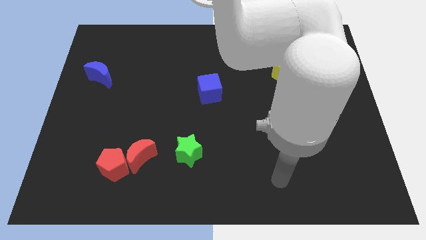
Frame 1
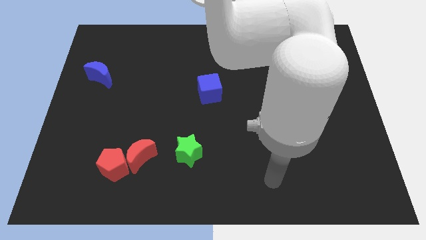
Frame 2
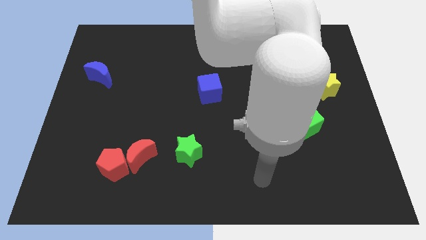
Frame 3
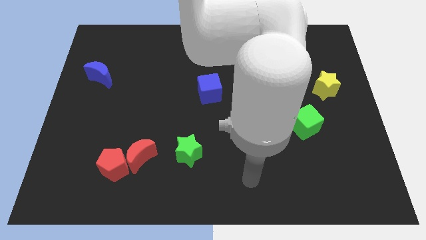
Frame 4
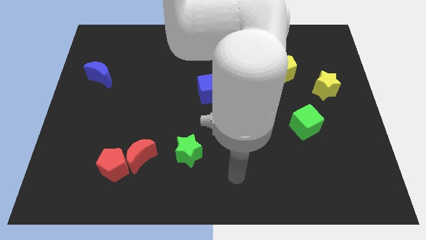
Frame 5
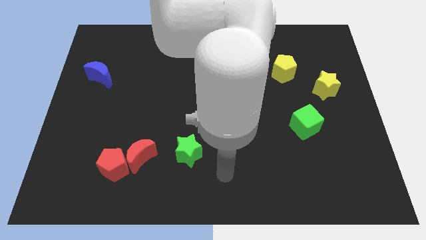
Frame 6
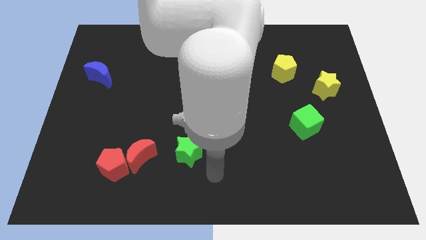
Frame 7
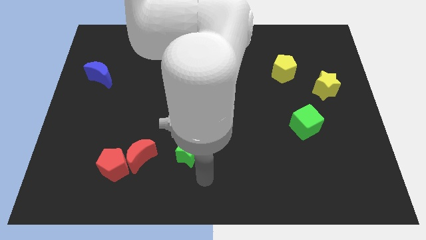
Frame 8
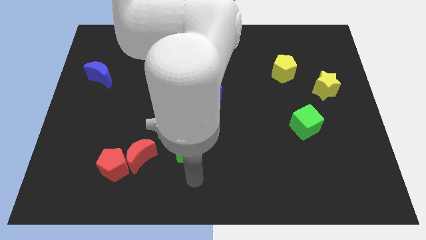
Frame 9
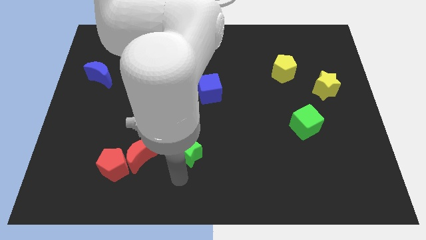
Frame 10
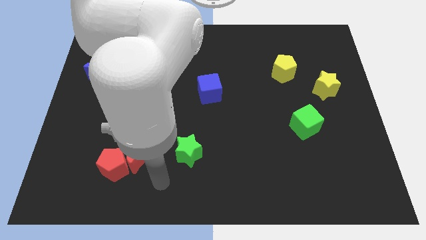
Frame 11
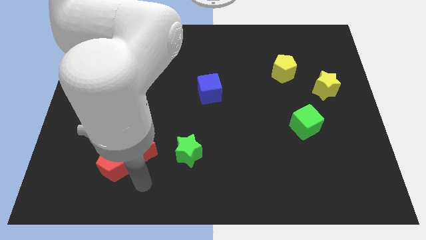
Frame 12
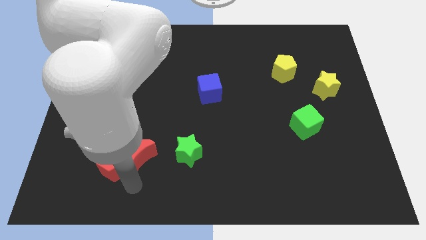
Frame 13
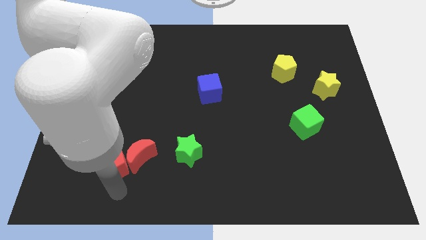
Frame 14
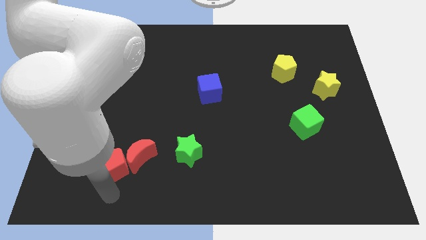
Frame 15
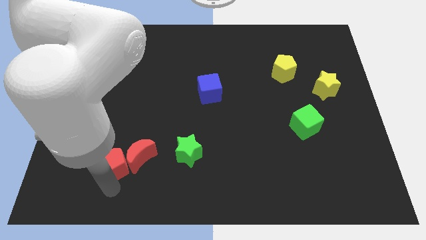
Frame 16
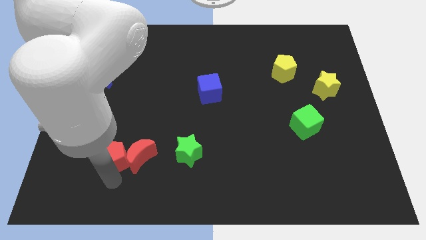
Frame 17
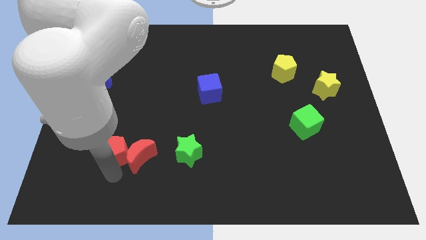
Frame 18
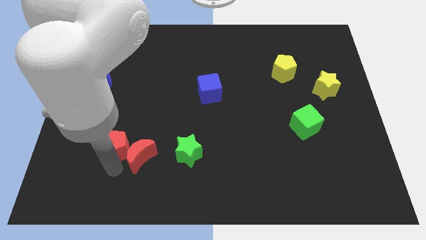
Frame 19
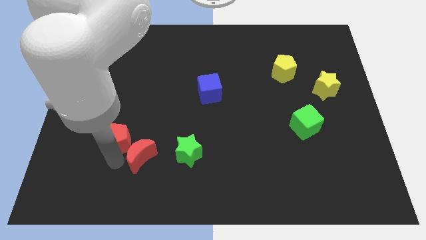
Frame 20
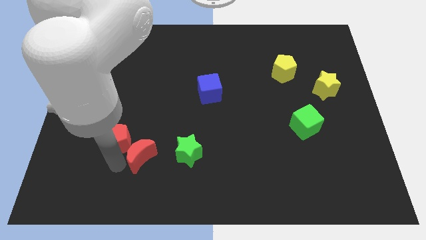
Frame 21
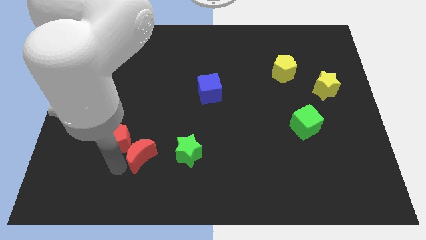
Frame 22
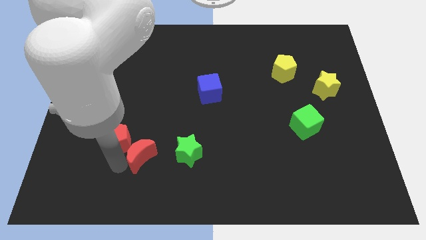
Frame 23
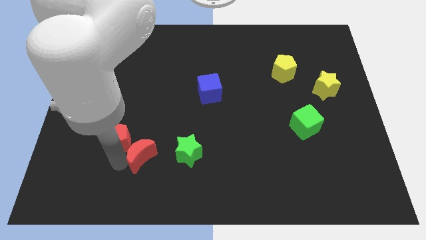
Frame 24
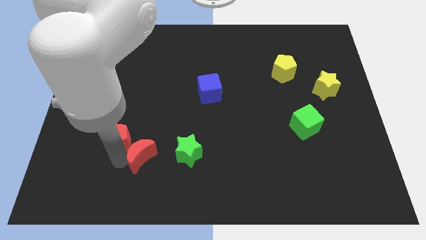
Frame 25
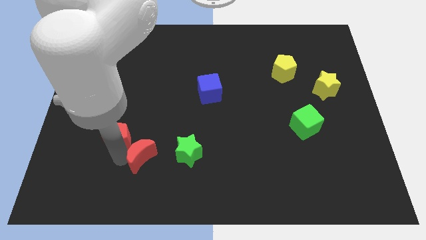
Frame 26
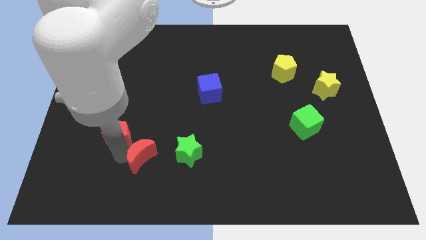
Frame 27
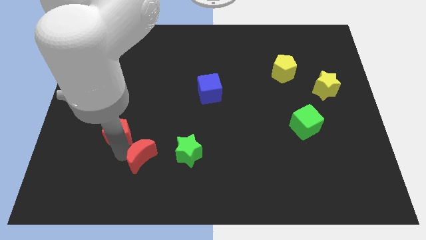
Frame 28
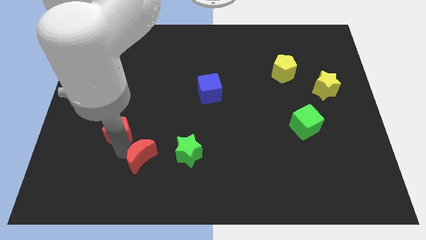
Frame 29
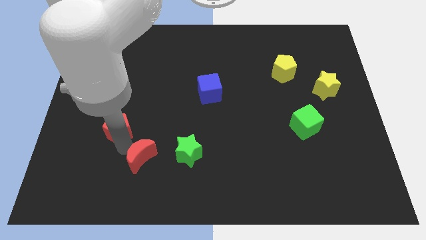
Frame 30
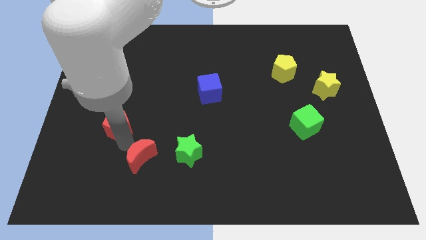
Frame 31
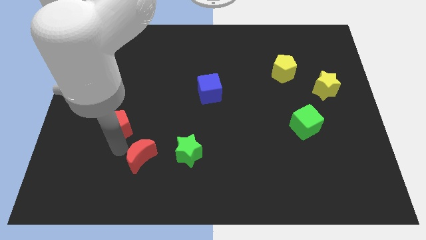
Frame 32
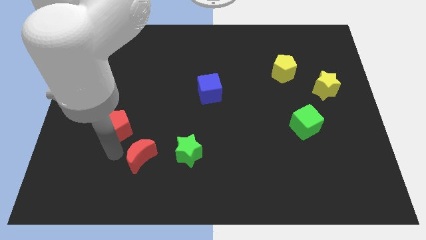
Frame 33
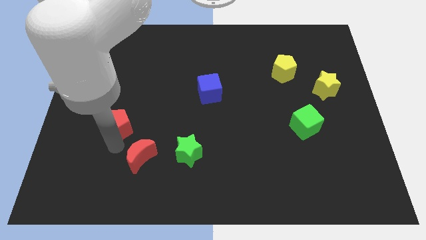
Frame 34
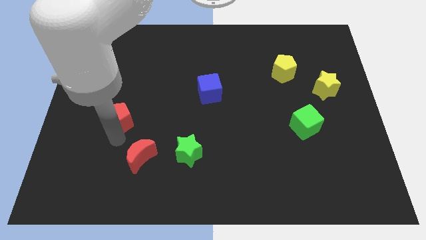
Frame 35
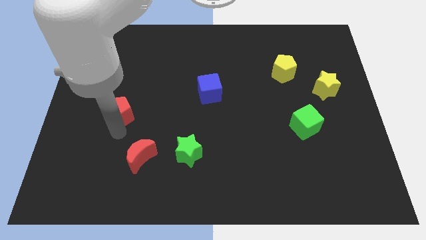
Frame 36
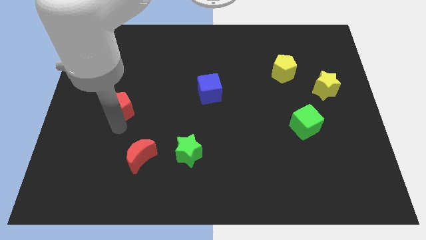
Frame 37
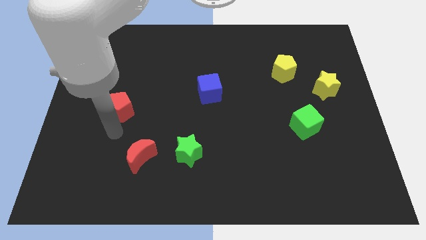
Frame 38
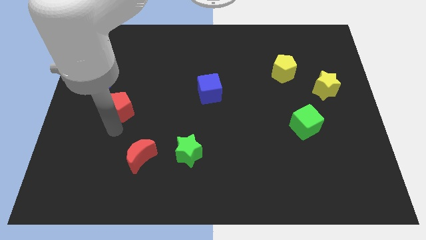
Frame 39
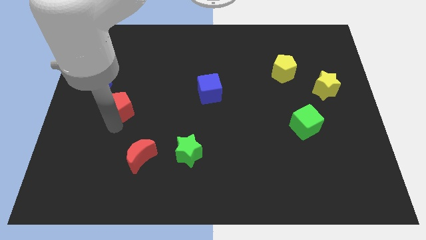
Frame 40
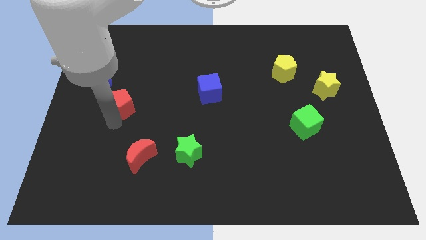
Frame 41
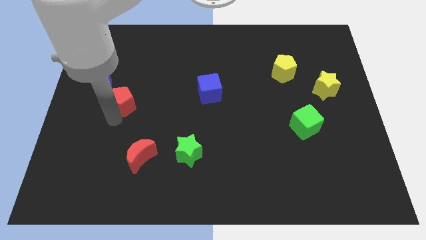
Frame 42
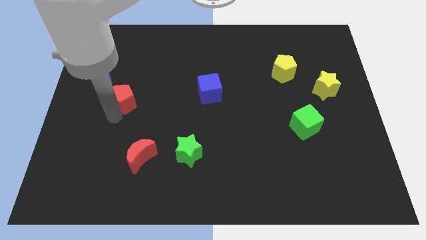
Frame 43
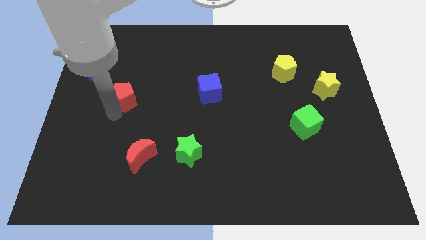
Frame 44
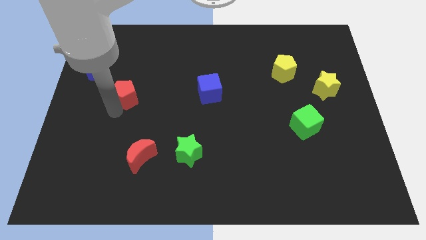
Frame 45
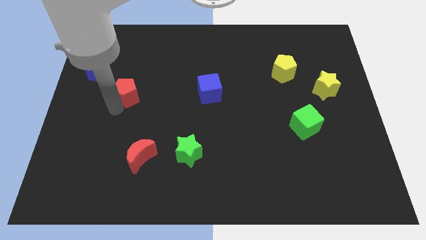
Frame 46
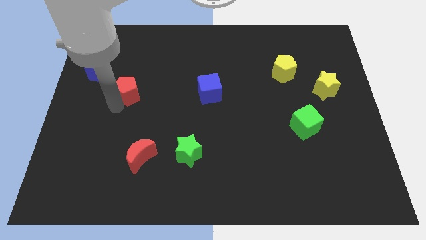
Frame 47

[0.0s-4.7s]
slide the red pentagon upwards

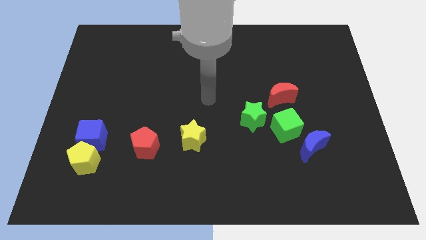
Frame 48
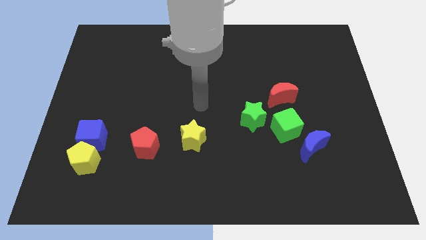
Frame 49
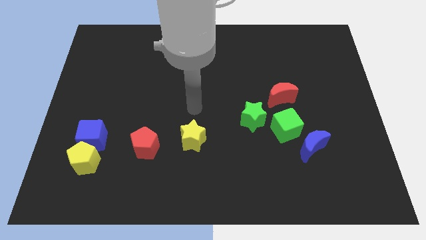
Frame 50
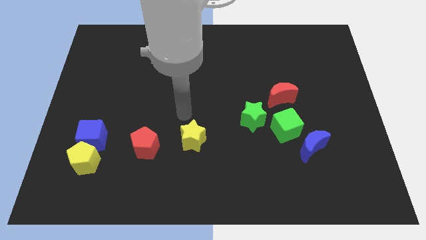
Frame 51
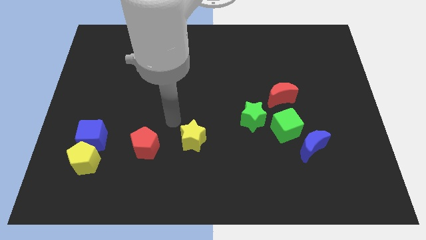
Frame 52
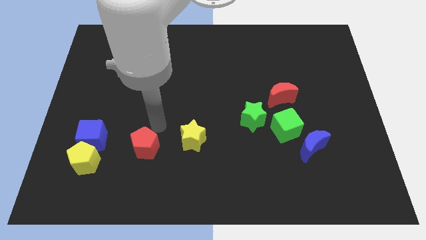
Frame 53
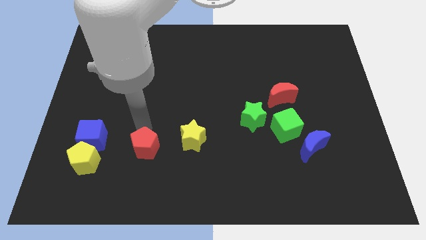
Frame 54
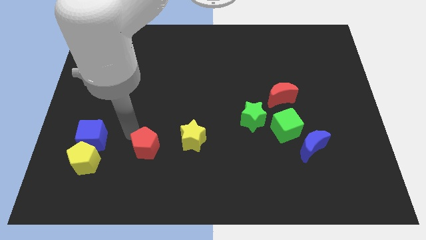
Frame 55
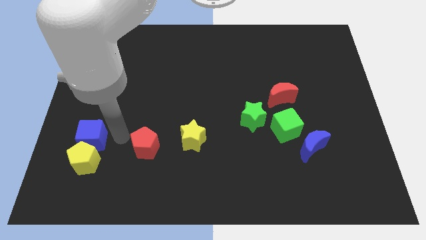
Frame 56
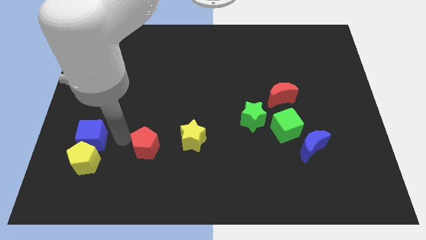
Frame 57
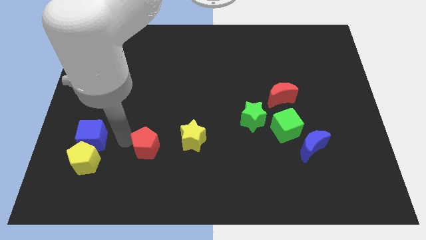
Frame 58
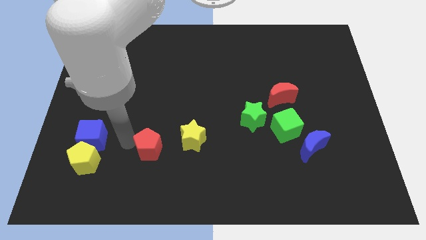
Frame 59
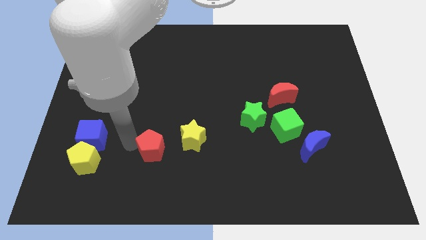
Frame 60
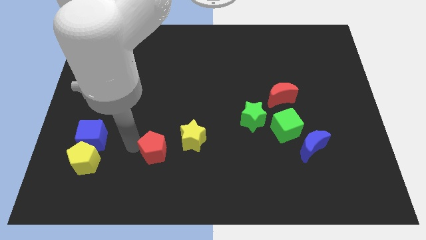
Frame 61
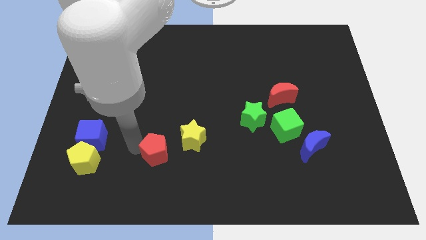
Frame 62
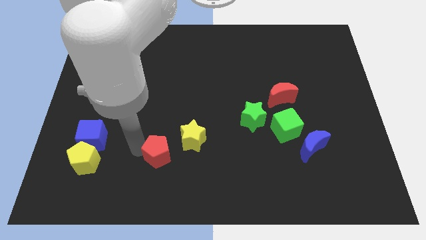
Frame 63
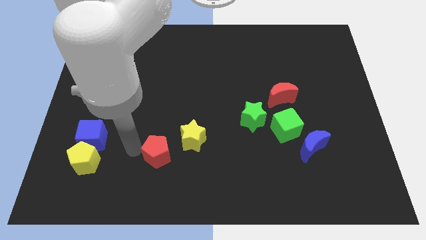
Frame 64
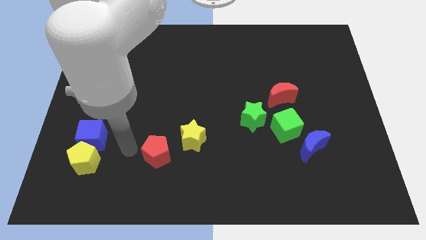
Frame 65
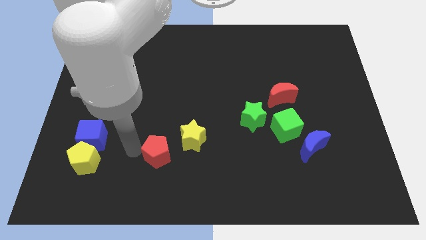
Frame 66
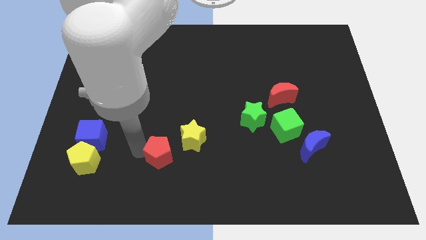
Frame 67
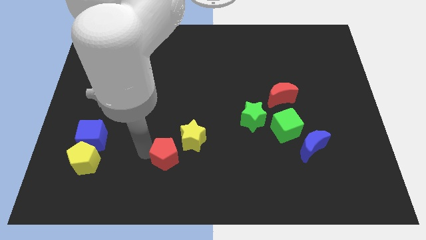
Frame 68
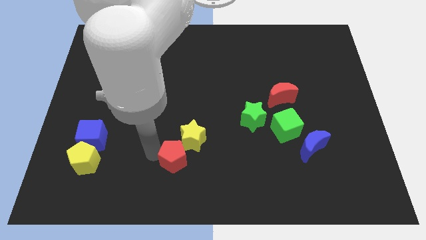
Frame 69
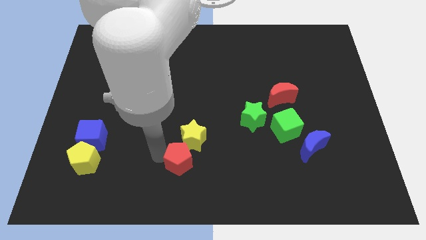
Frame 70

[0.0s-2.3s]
slide the red pentagon right a bit

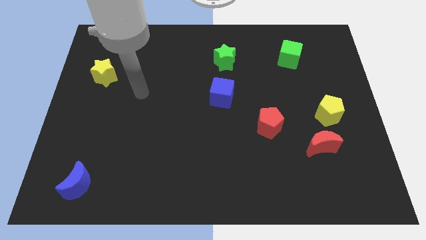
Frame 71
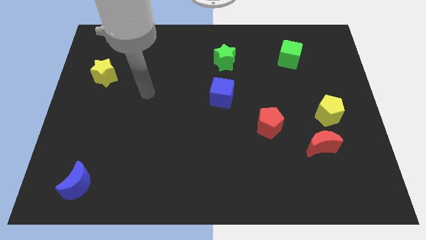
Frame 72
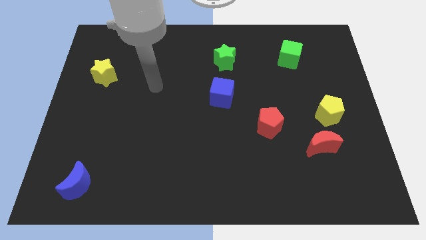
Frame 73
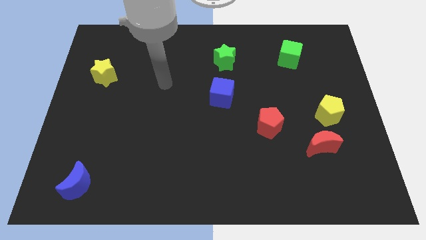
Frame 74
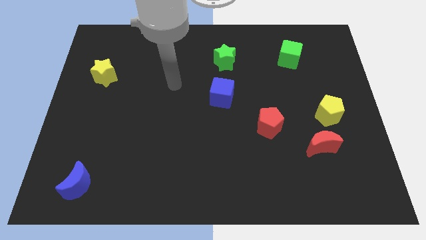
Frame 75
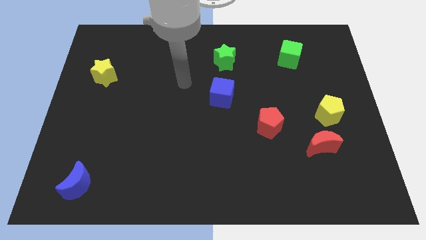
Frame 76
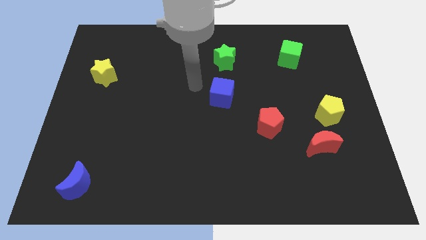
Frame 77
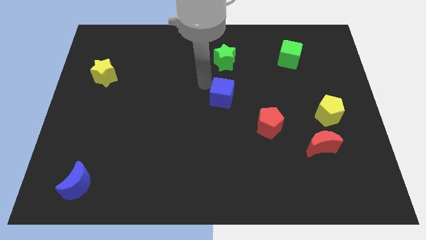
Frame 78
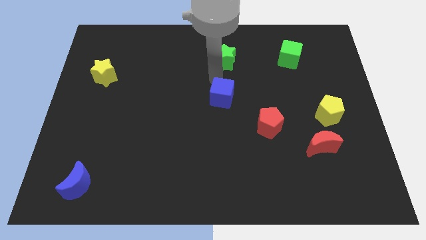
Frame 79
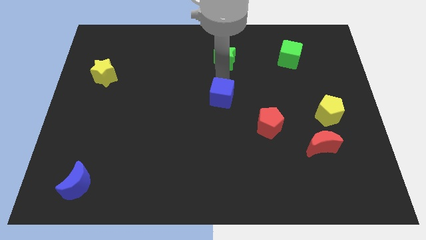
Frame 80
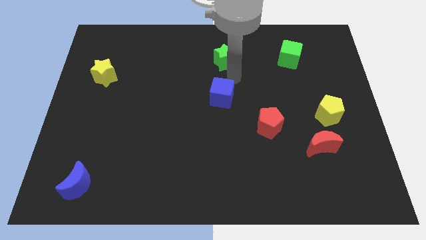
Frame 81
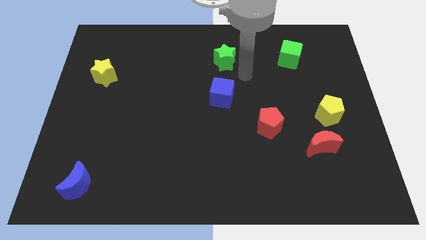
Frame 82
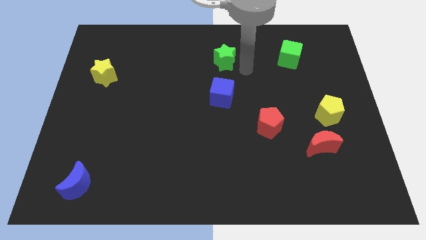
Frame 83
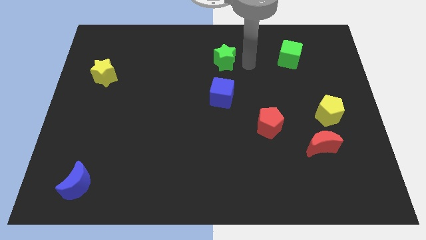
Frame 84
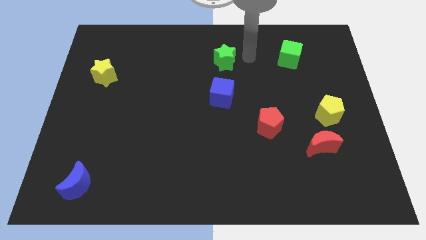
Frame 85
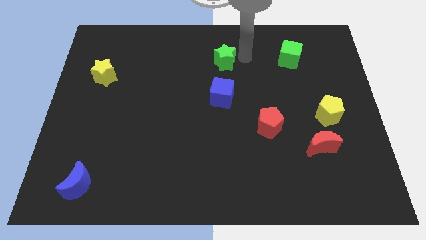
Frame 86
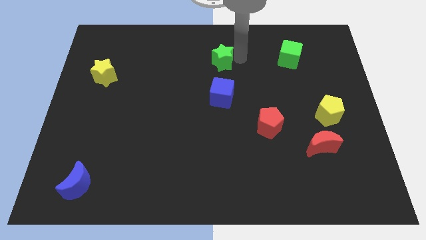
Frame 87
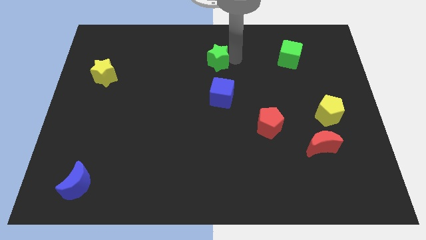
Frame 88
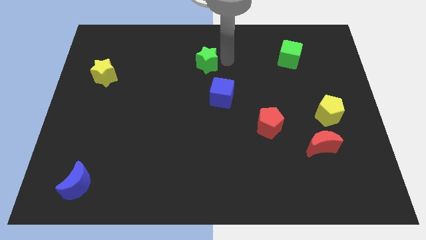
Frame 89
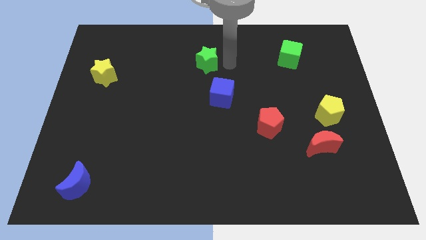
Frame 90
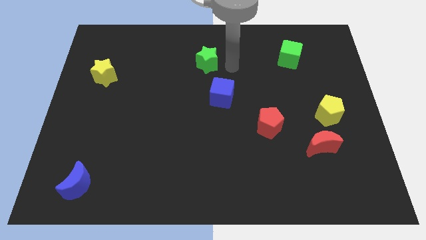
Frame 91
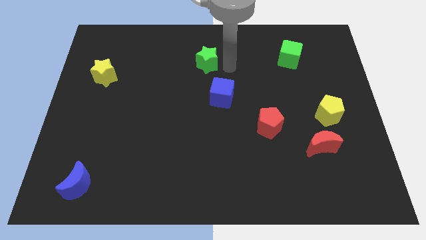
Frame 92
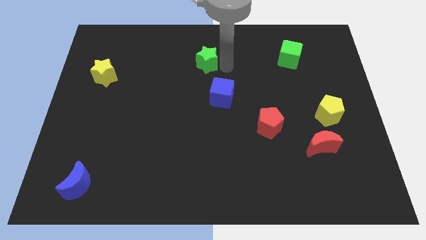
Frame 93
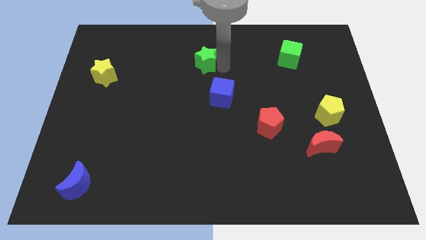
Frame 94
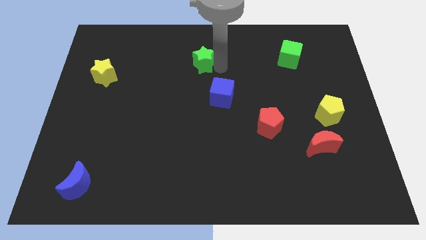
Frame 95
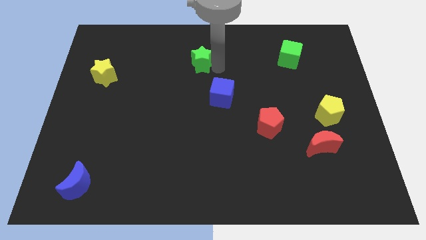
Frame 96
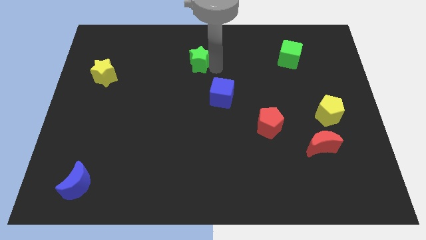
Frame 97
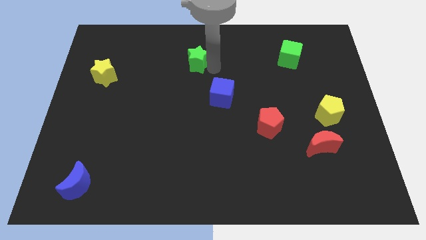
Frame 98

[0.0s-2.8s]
slide the green star a bit left
